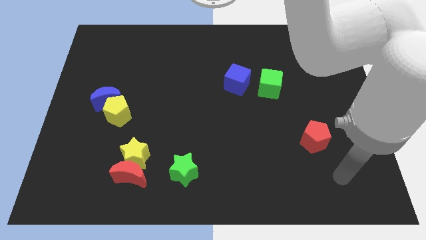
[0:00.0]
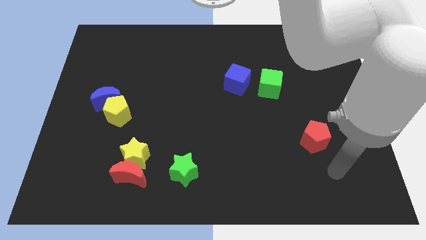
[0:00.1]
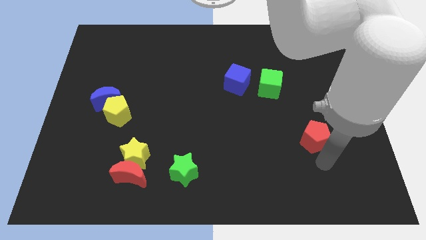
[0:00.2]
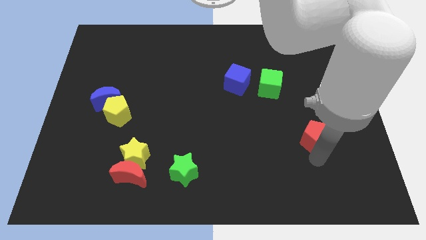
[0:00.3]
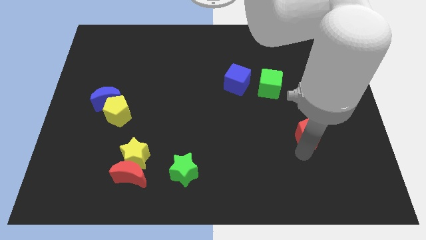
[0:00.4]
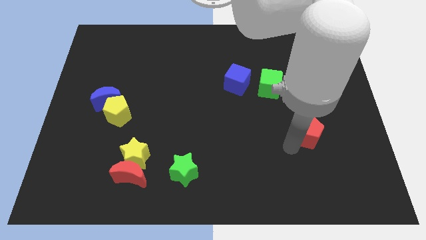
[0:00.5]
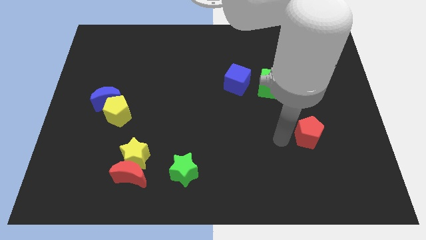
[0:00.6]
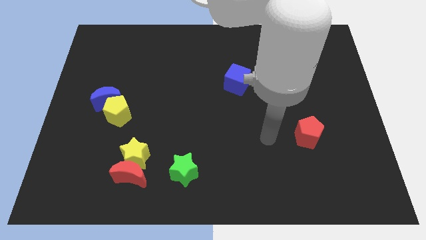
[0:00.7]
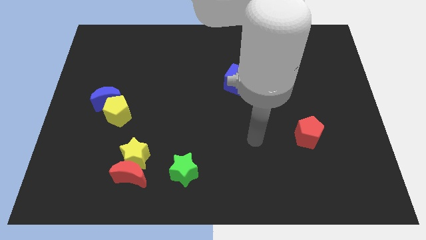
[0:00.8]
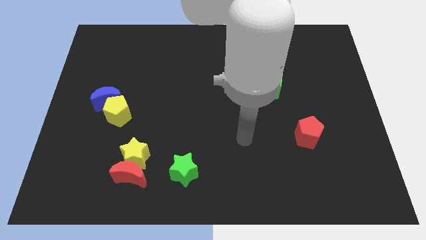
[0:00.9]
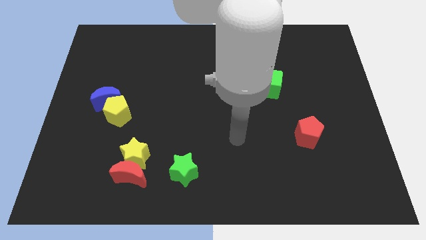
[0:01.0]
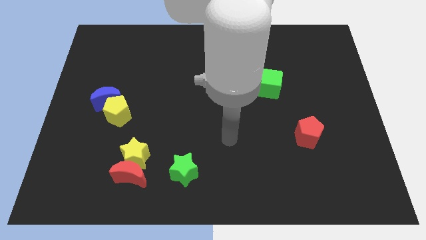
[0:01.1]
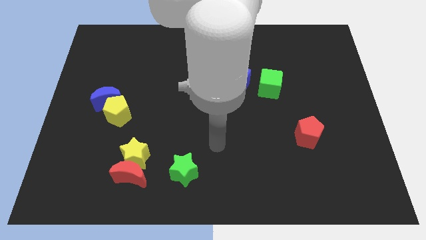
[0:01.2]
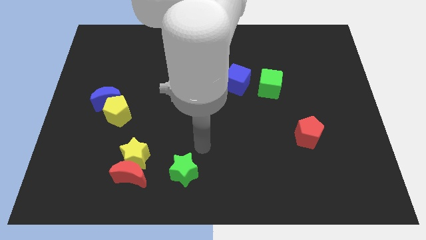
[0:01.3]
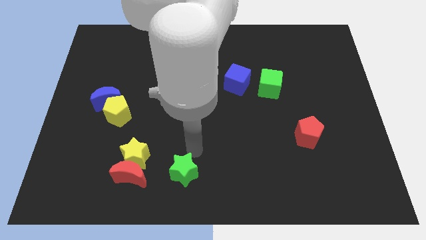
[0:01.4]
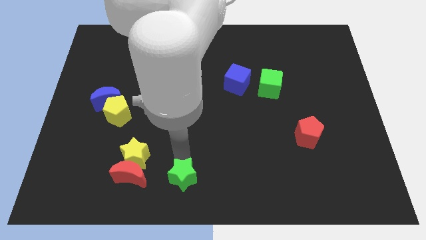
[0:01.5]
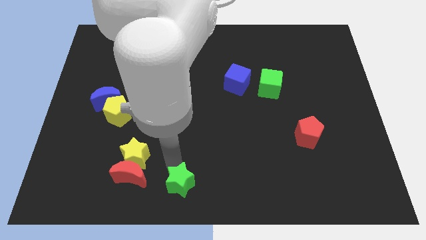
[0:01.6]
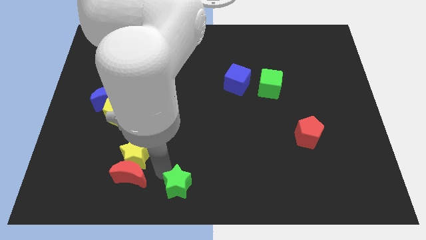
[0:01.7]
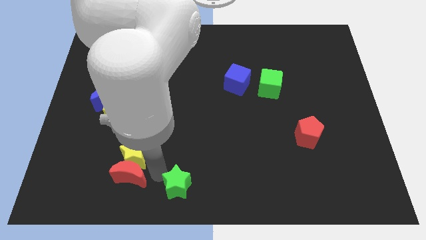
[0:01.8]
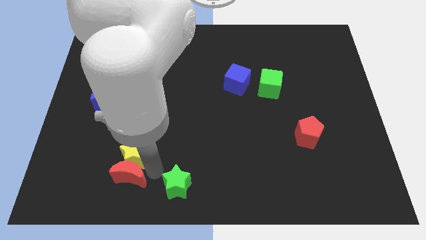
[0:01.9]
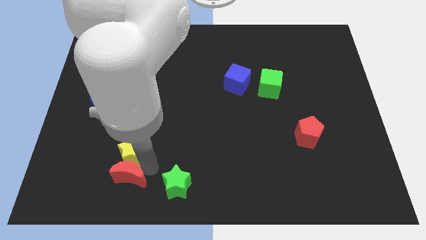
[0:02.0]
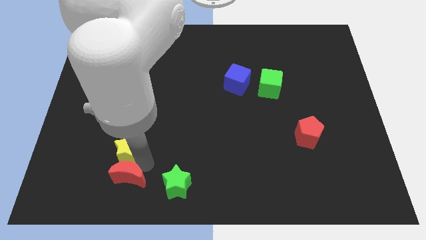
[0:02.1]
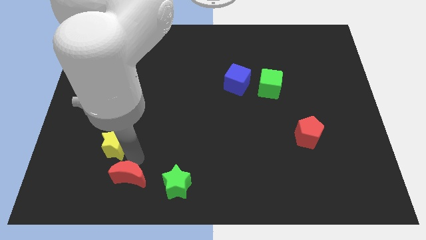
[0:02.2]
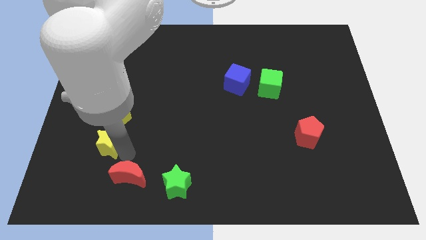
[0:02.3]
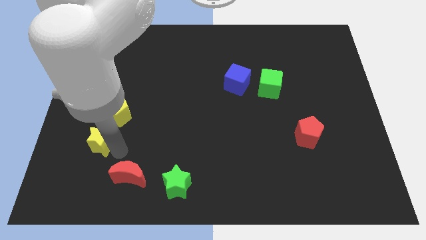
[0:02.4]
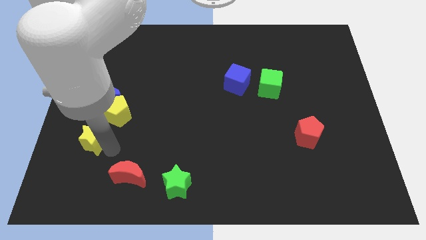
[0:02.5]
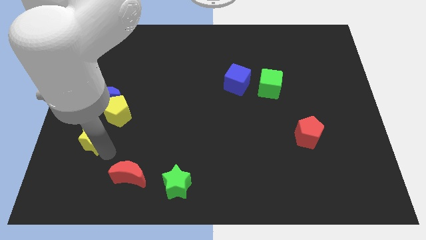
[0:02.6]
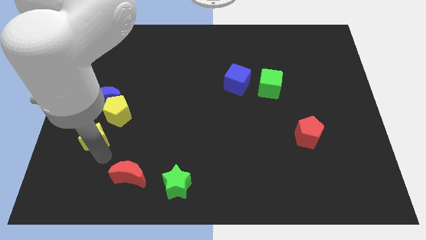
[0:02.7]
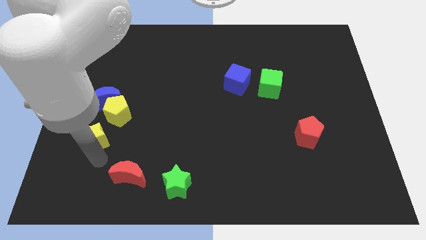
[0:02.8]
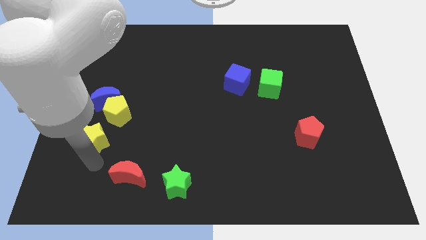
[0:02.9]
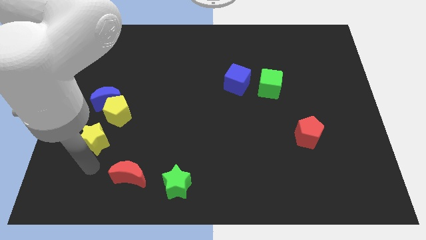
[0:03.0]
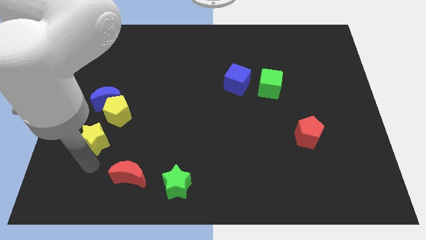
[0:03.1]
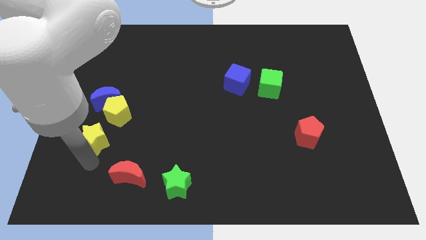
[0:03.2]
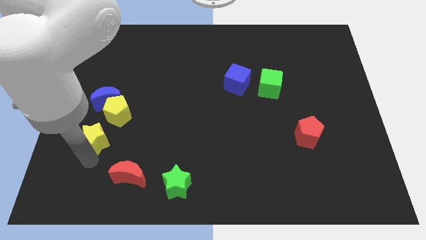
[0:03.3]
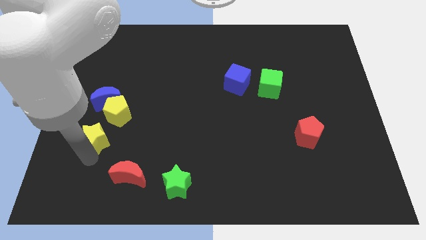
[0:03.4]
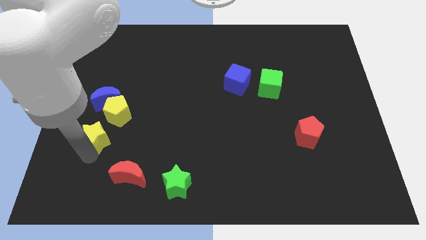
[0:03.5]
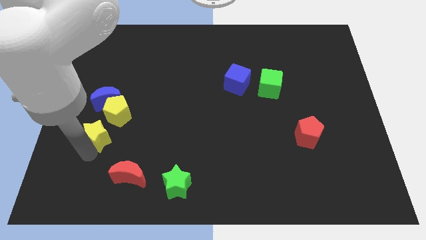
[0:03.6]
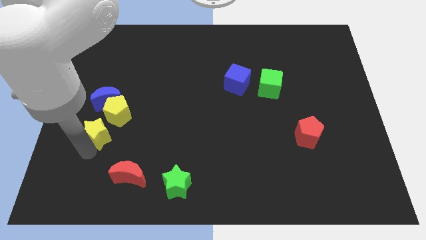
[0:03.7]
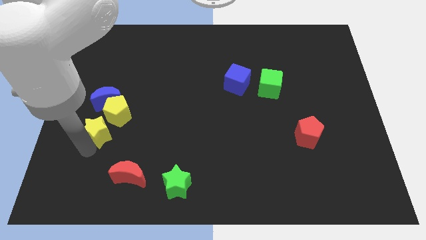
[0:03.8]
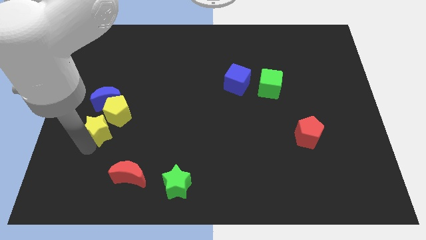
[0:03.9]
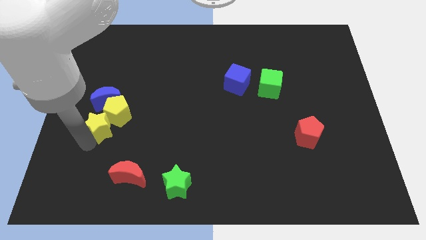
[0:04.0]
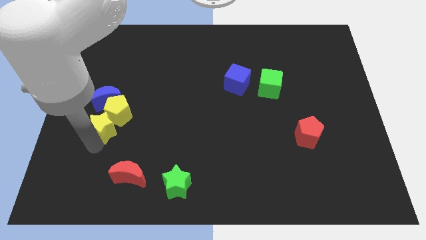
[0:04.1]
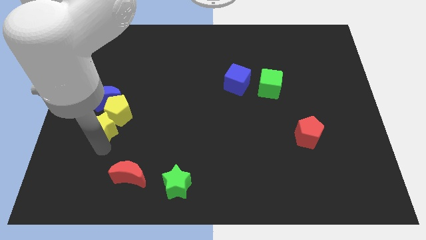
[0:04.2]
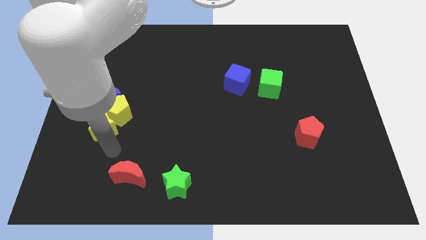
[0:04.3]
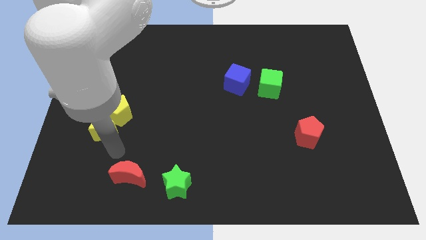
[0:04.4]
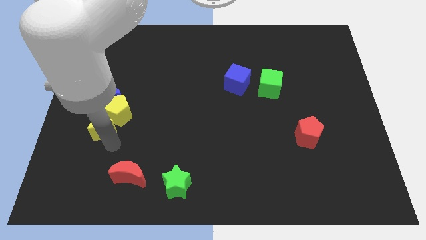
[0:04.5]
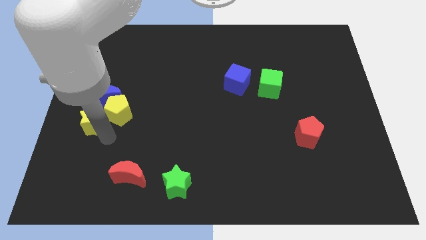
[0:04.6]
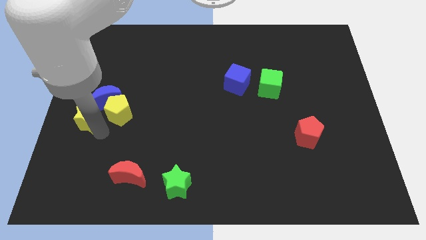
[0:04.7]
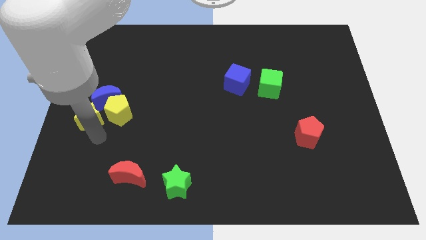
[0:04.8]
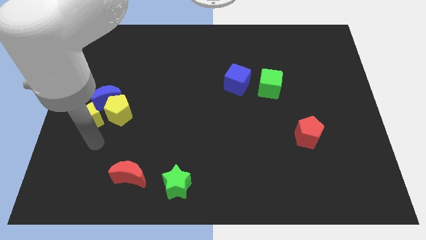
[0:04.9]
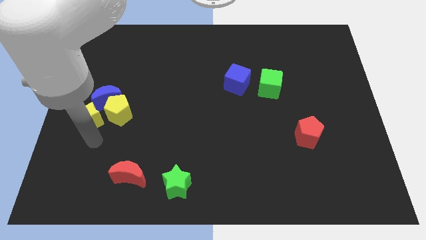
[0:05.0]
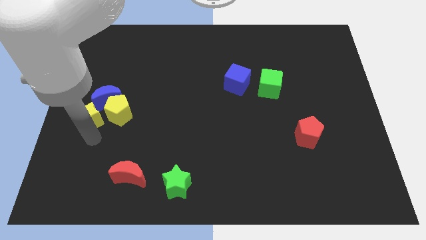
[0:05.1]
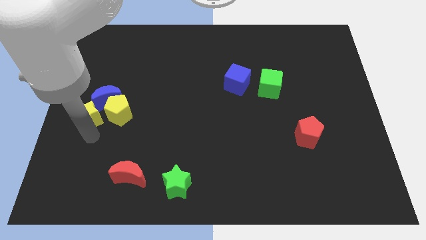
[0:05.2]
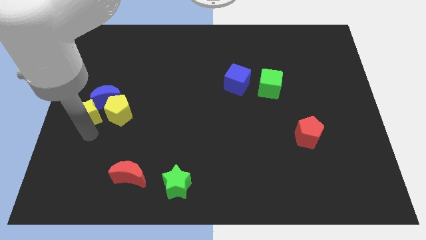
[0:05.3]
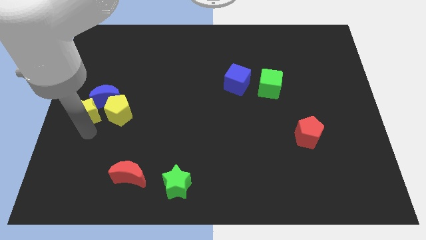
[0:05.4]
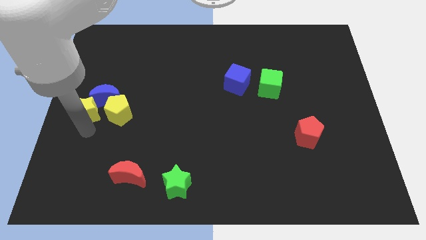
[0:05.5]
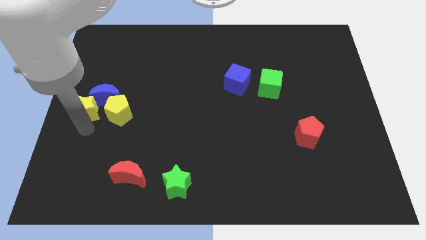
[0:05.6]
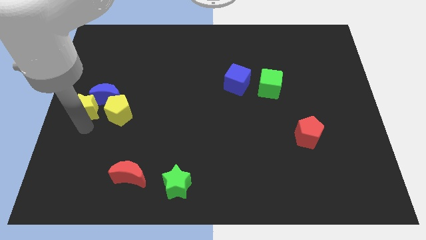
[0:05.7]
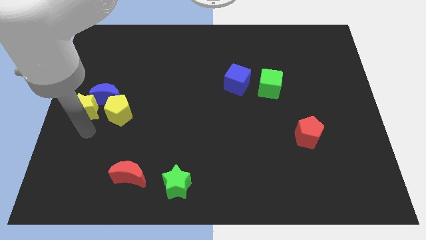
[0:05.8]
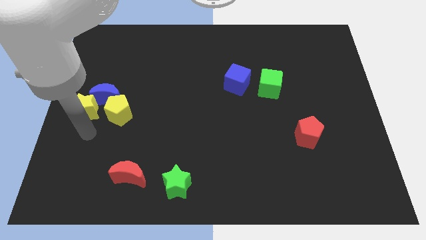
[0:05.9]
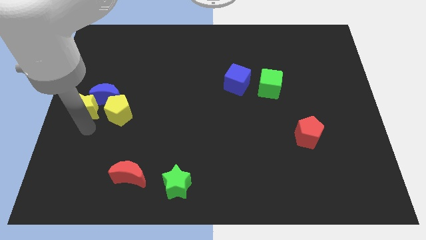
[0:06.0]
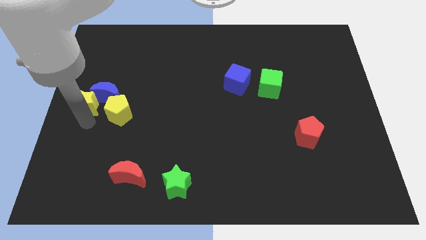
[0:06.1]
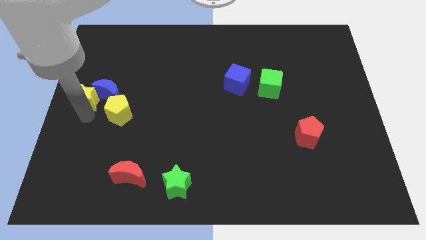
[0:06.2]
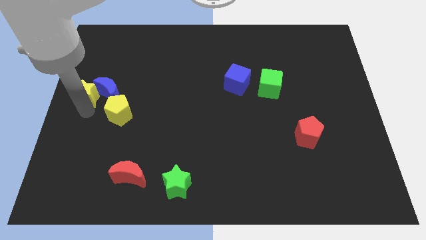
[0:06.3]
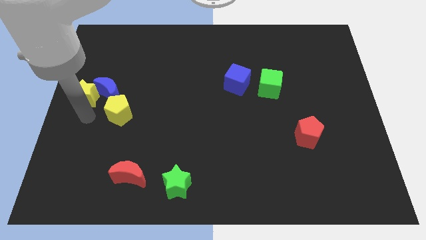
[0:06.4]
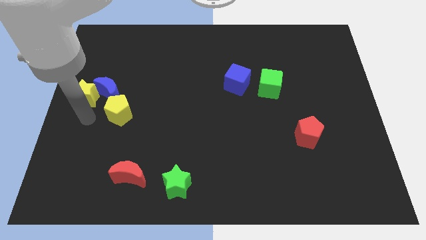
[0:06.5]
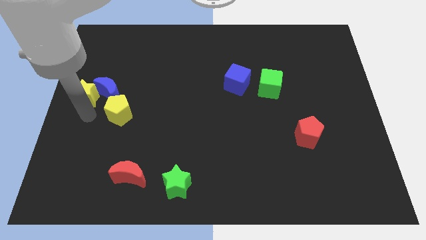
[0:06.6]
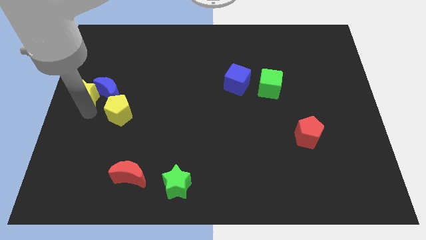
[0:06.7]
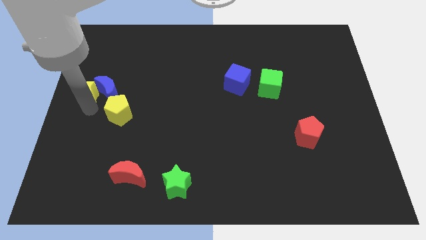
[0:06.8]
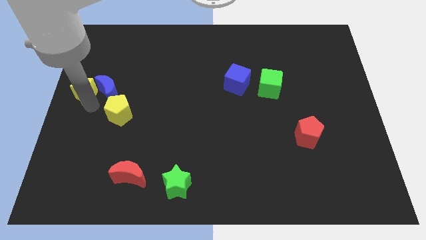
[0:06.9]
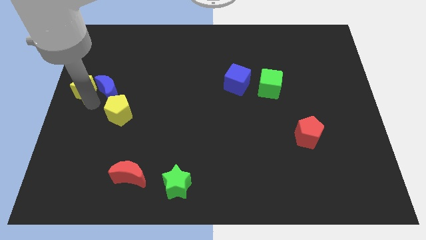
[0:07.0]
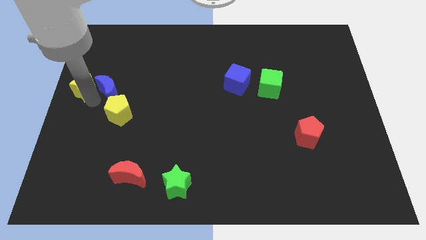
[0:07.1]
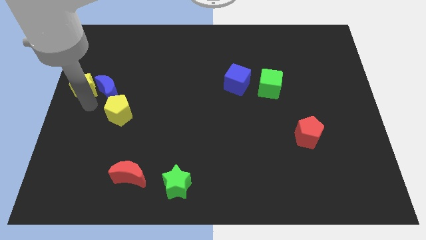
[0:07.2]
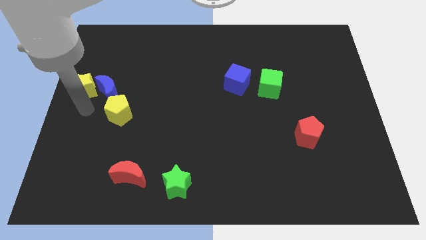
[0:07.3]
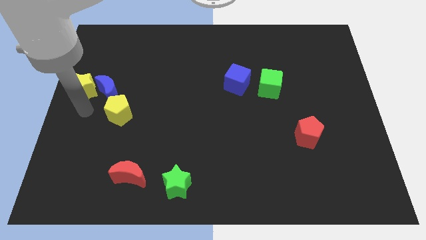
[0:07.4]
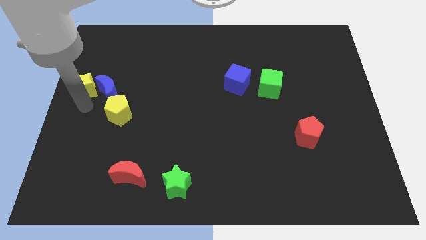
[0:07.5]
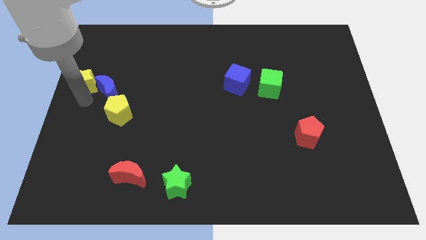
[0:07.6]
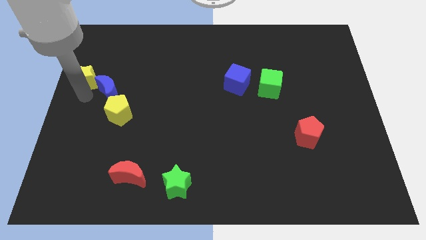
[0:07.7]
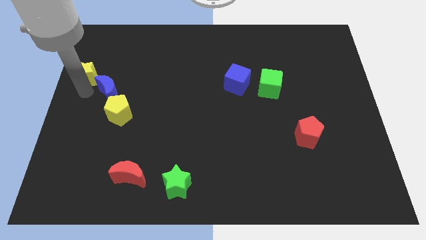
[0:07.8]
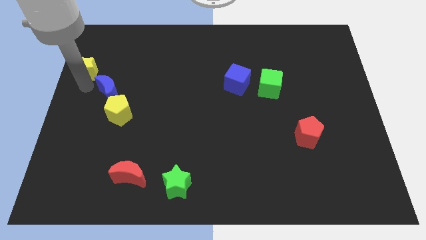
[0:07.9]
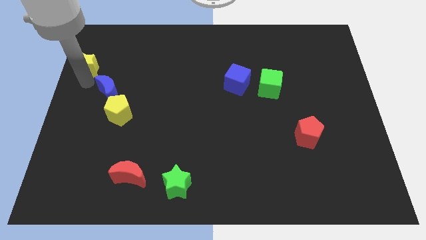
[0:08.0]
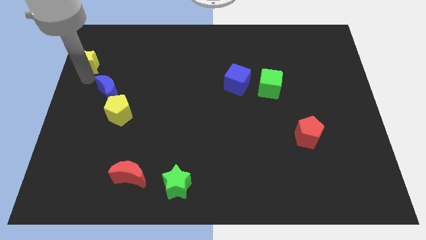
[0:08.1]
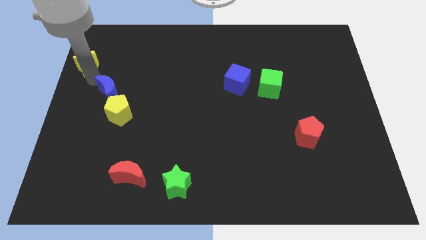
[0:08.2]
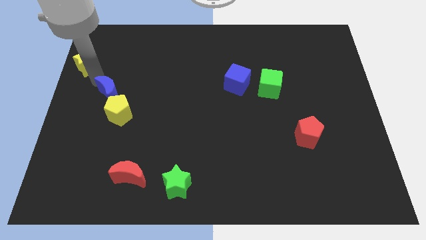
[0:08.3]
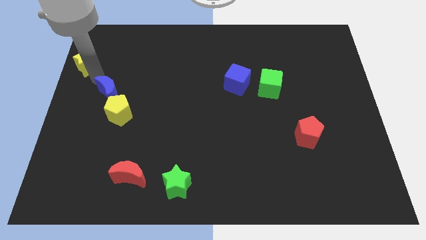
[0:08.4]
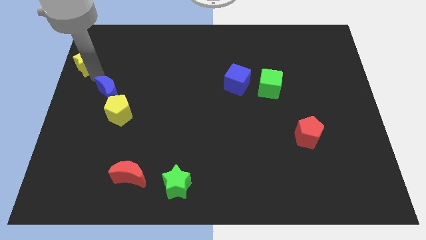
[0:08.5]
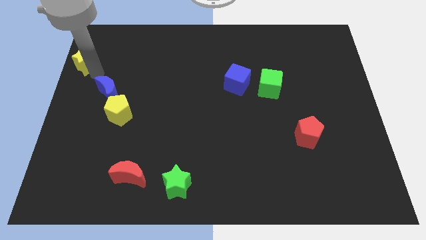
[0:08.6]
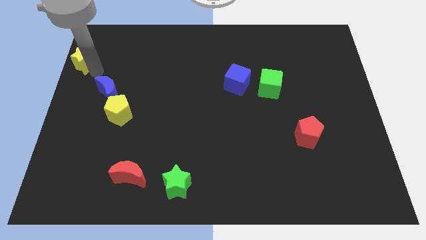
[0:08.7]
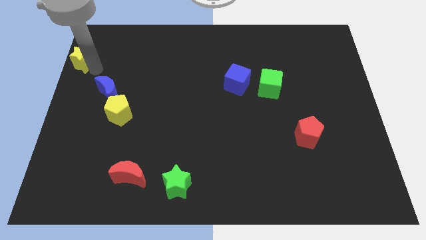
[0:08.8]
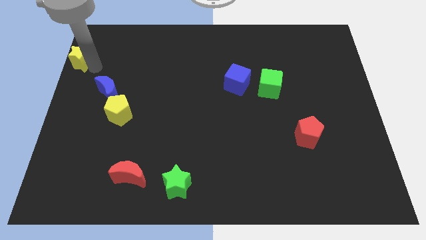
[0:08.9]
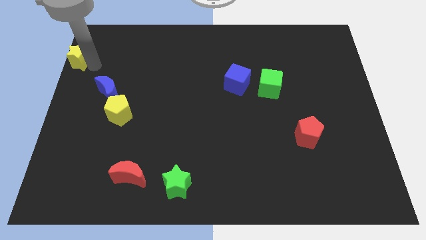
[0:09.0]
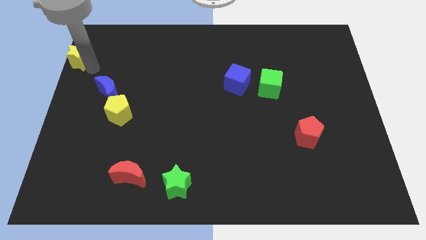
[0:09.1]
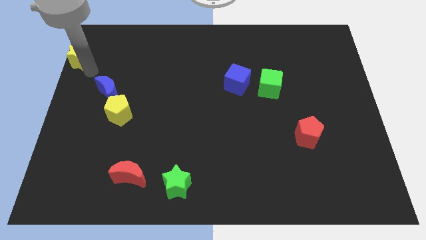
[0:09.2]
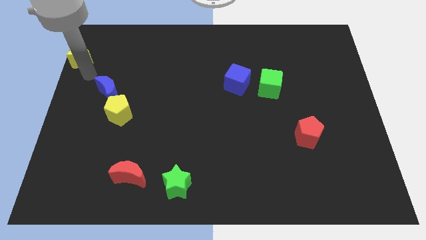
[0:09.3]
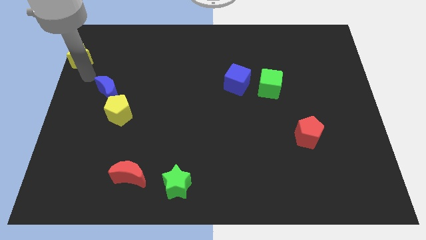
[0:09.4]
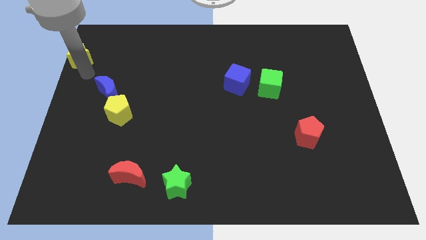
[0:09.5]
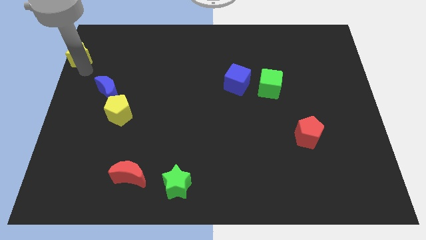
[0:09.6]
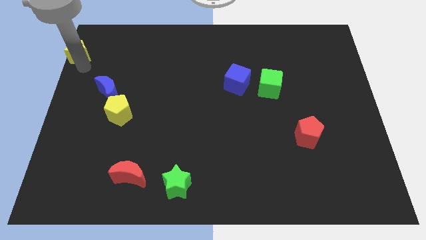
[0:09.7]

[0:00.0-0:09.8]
move the yellow star to the top left corner
